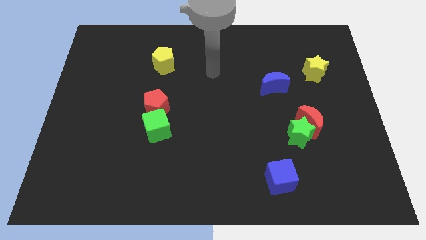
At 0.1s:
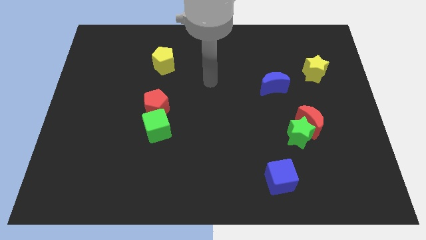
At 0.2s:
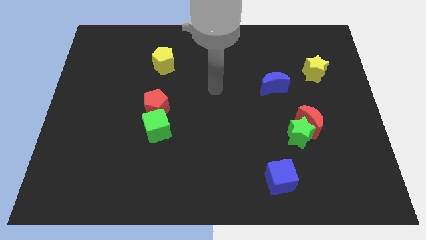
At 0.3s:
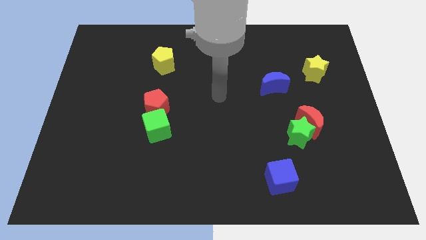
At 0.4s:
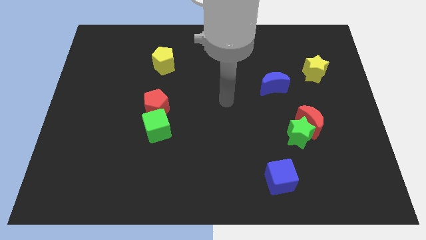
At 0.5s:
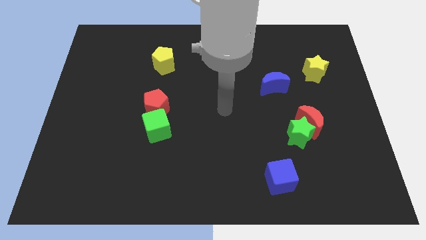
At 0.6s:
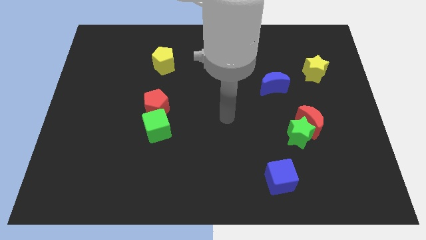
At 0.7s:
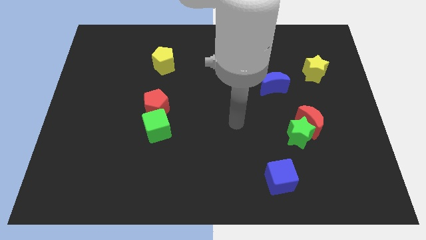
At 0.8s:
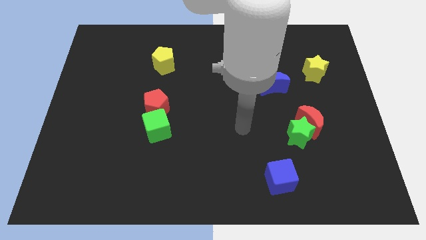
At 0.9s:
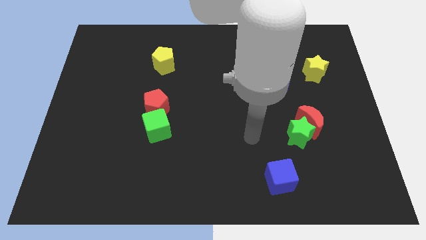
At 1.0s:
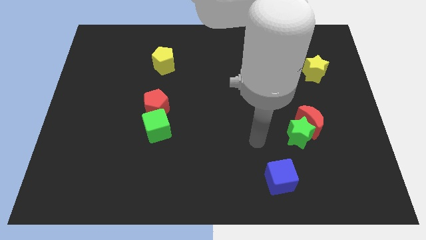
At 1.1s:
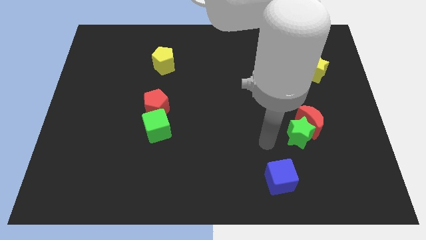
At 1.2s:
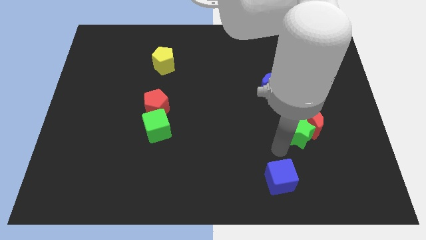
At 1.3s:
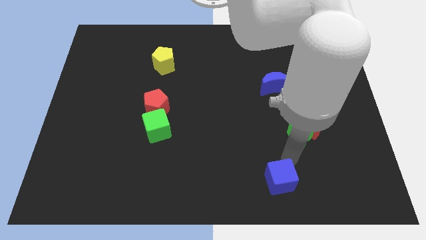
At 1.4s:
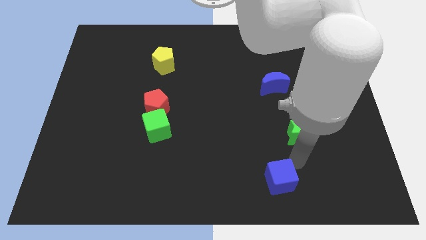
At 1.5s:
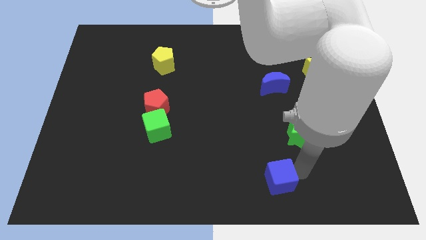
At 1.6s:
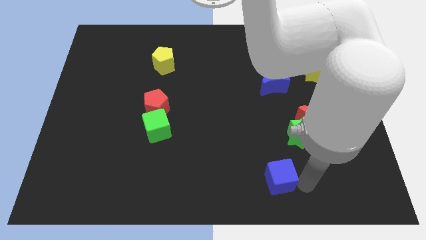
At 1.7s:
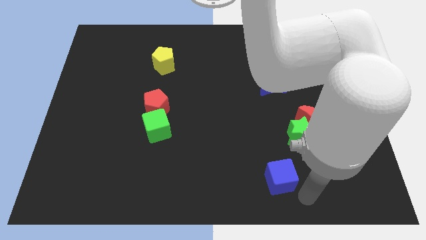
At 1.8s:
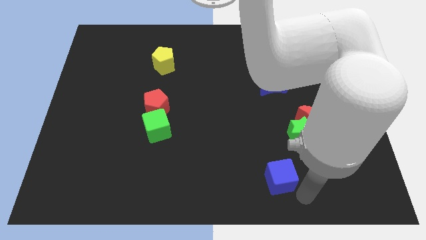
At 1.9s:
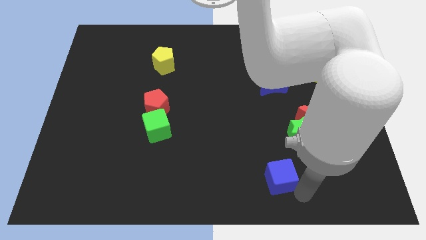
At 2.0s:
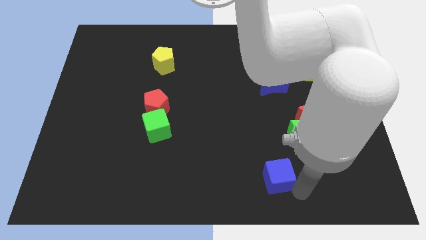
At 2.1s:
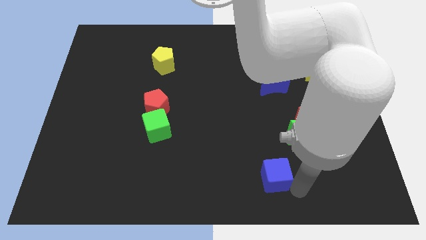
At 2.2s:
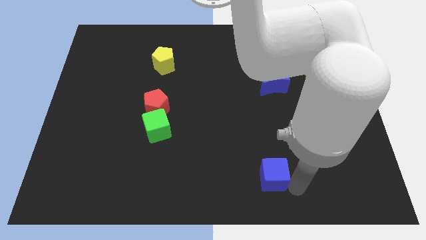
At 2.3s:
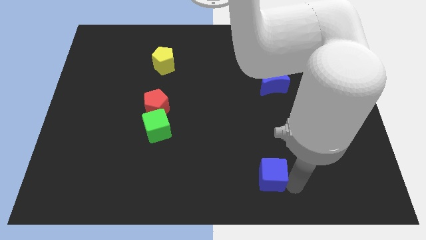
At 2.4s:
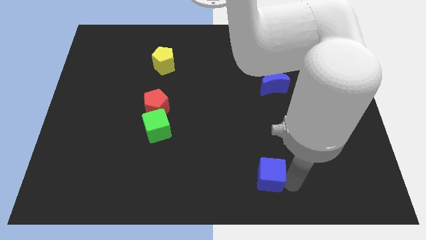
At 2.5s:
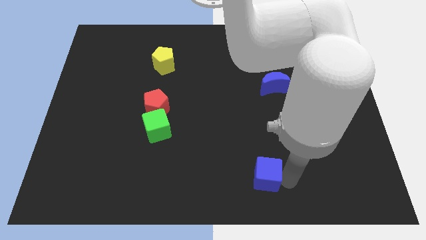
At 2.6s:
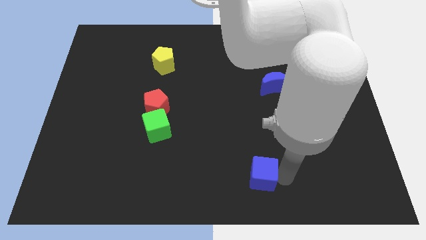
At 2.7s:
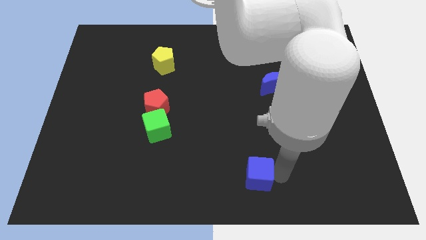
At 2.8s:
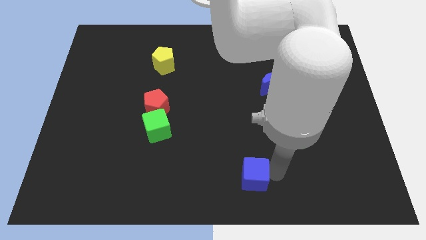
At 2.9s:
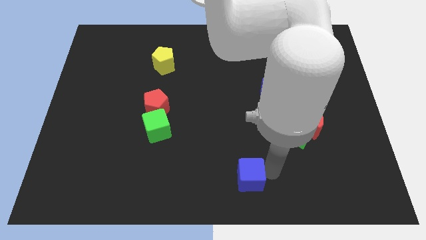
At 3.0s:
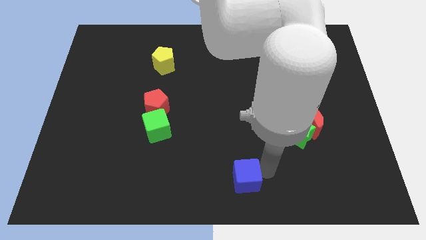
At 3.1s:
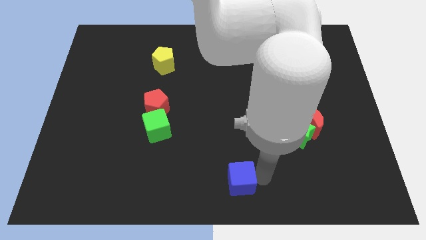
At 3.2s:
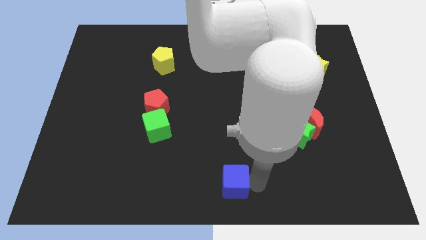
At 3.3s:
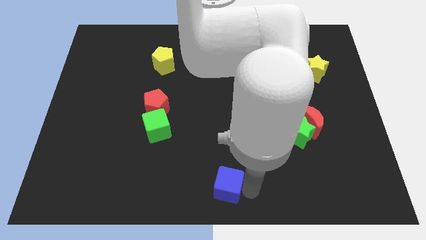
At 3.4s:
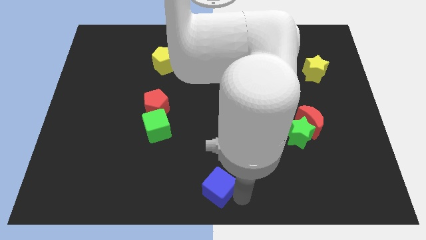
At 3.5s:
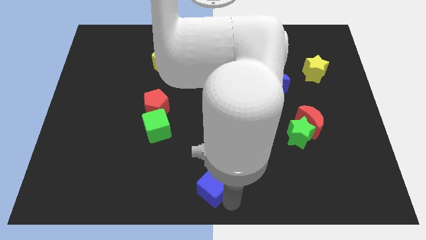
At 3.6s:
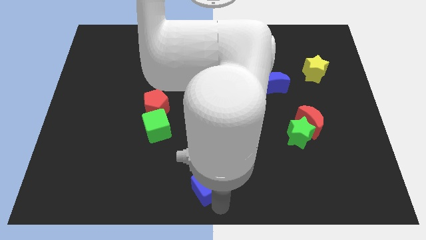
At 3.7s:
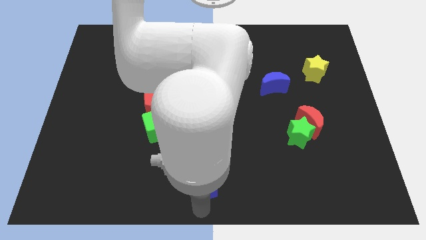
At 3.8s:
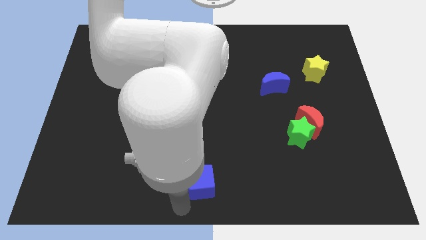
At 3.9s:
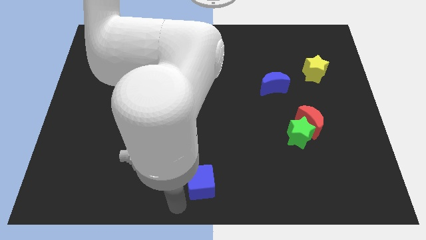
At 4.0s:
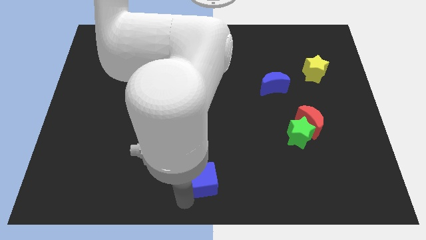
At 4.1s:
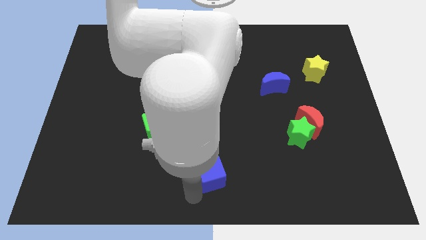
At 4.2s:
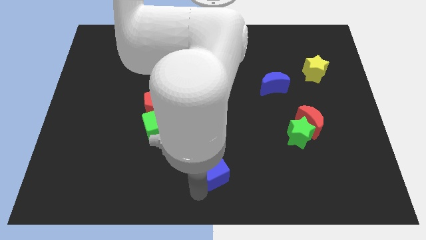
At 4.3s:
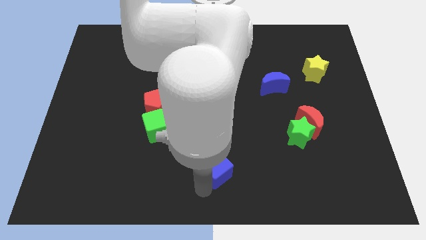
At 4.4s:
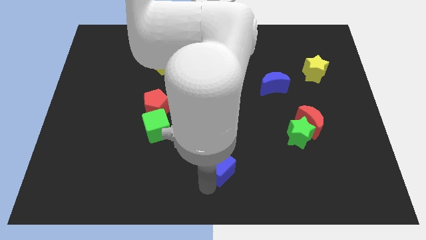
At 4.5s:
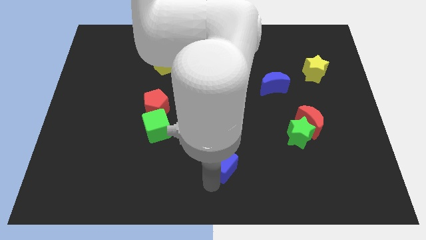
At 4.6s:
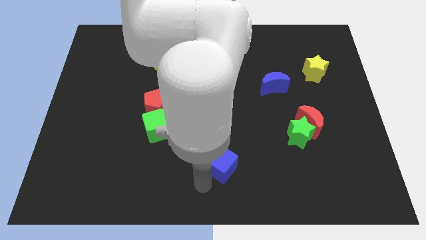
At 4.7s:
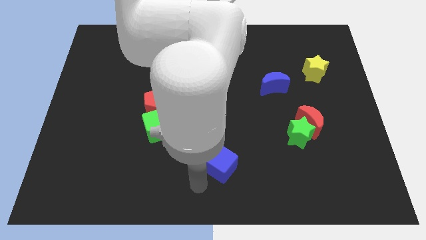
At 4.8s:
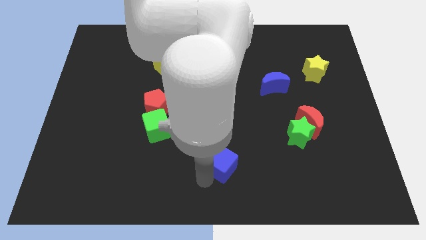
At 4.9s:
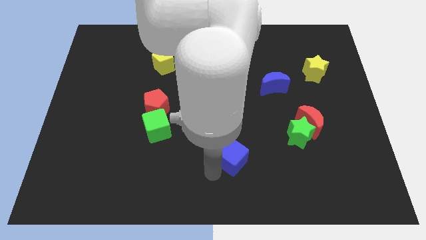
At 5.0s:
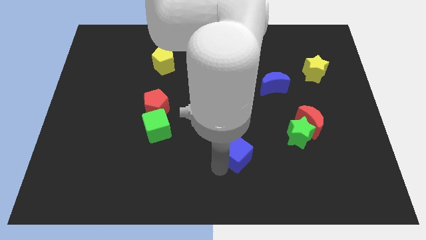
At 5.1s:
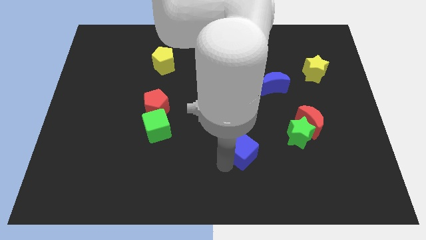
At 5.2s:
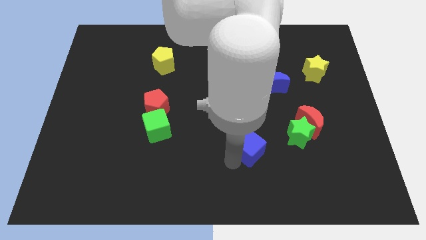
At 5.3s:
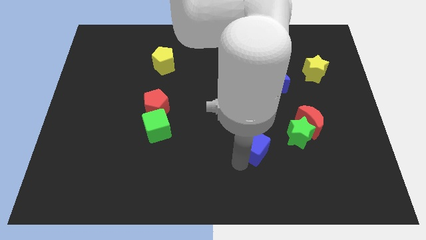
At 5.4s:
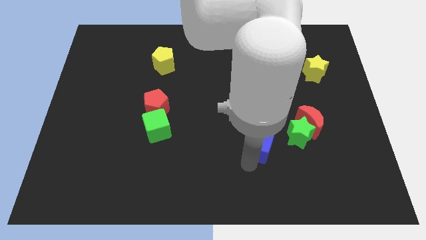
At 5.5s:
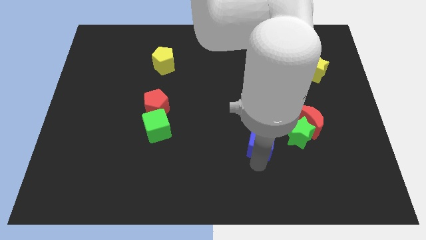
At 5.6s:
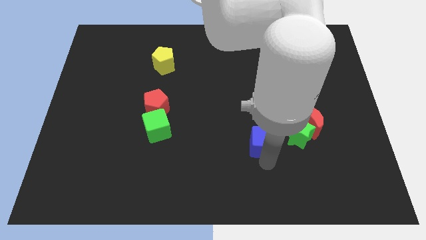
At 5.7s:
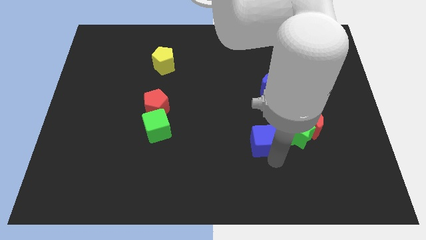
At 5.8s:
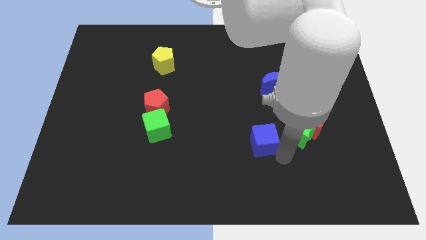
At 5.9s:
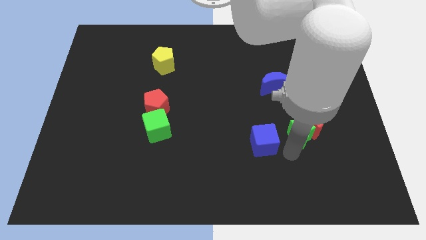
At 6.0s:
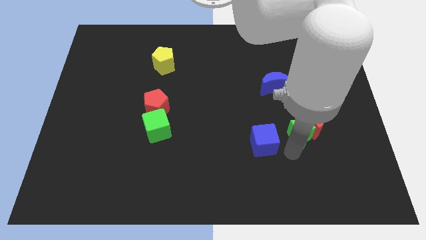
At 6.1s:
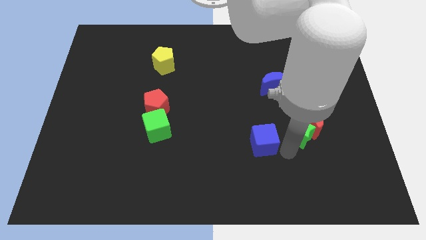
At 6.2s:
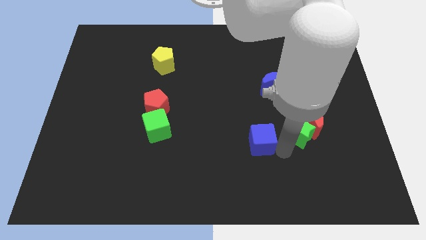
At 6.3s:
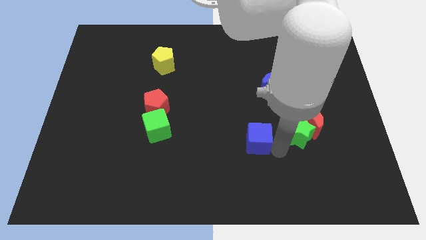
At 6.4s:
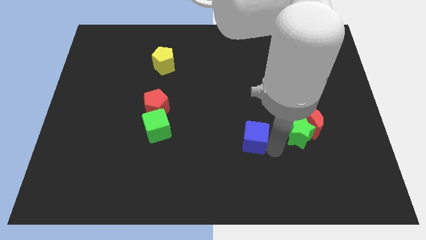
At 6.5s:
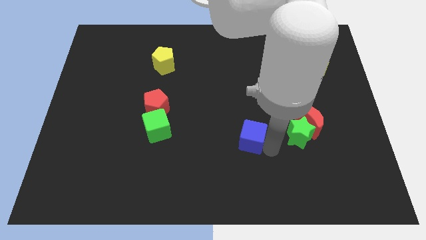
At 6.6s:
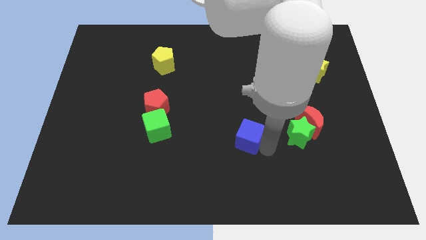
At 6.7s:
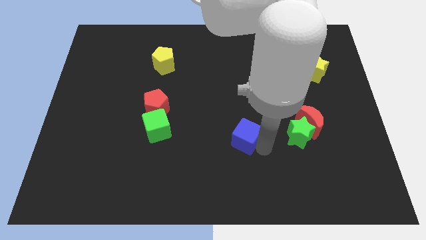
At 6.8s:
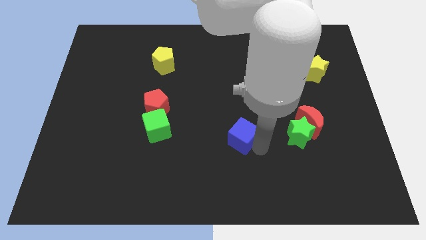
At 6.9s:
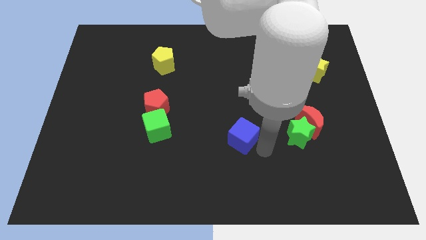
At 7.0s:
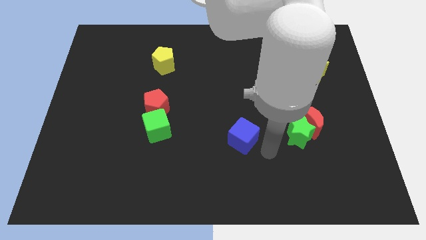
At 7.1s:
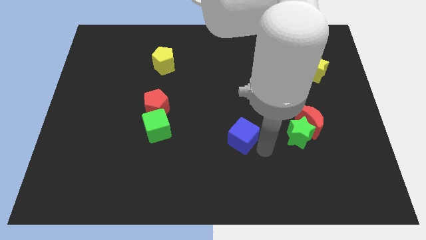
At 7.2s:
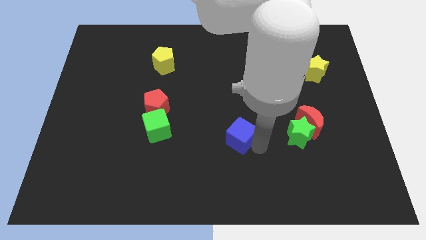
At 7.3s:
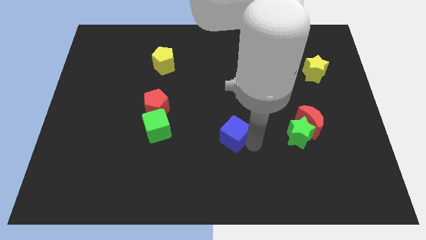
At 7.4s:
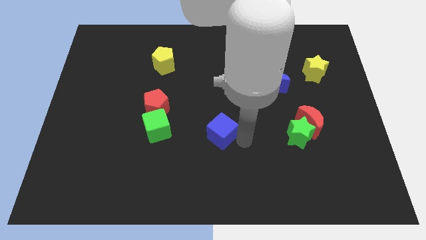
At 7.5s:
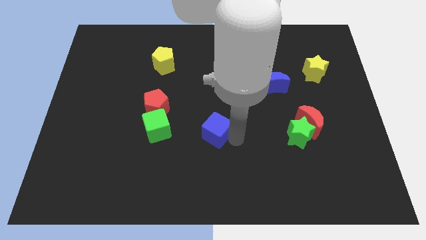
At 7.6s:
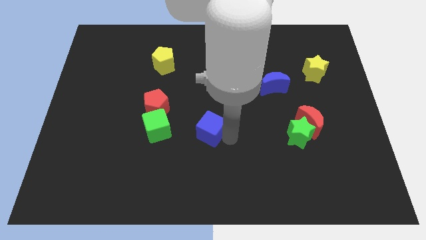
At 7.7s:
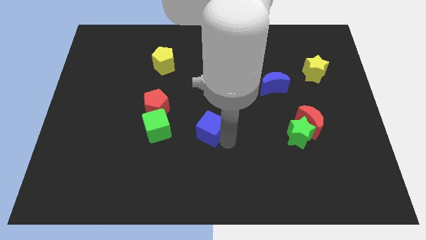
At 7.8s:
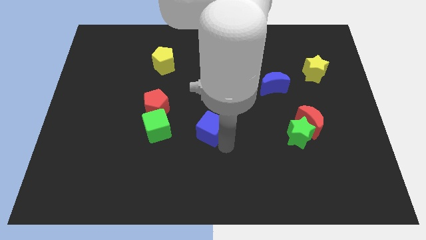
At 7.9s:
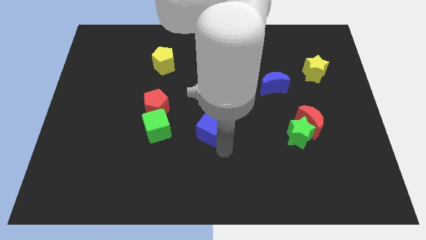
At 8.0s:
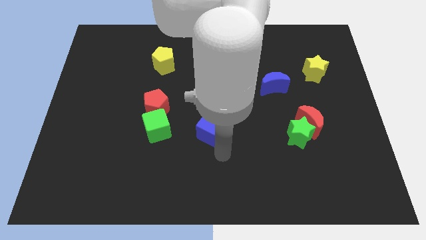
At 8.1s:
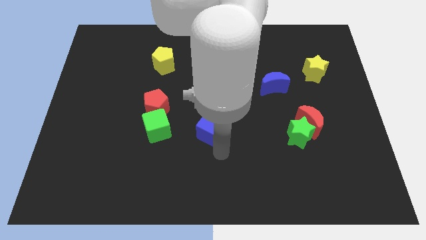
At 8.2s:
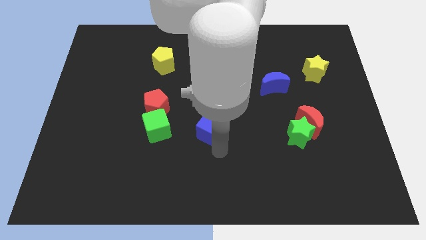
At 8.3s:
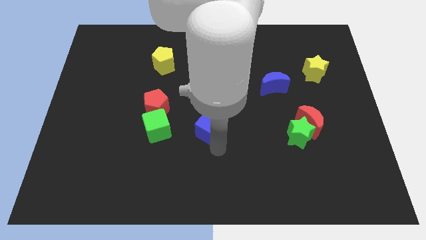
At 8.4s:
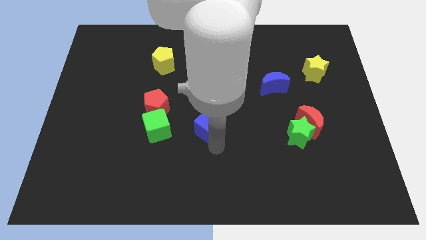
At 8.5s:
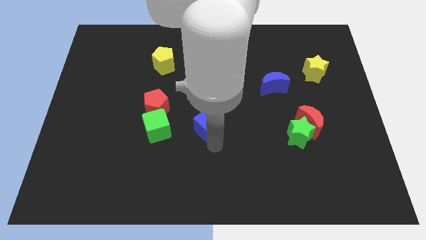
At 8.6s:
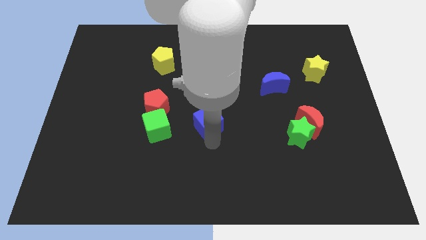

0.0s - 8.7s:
push the blue cube upwards and left
